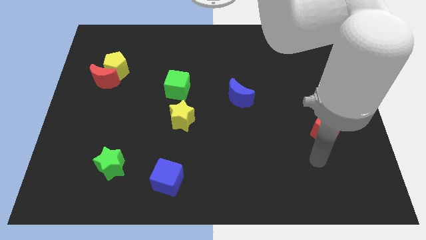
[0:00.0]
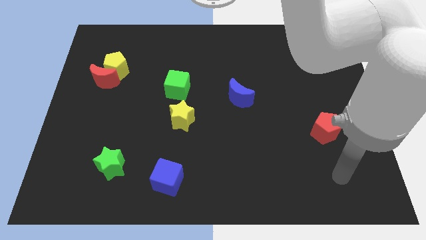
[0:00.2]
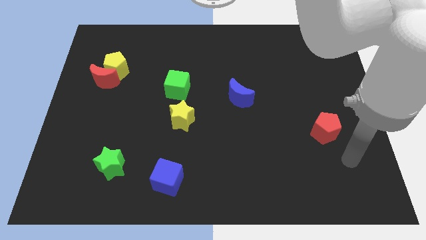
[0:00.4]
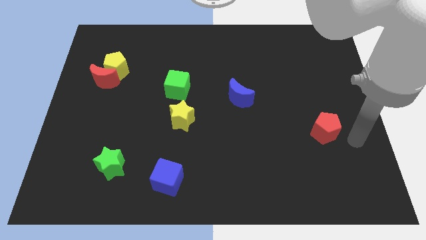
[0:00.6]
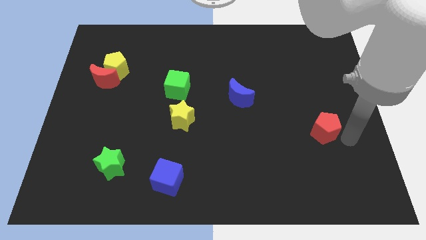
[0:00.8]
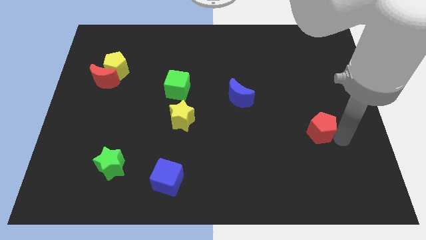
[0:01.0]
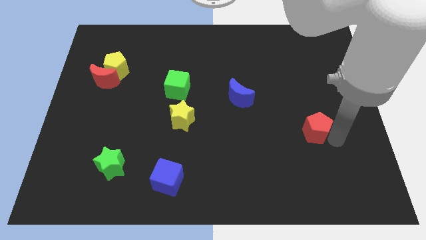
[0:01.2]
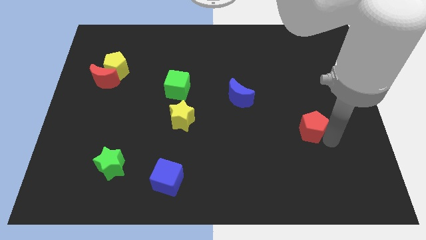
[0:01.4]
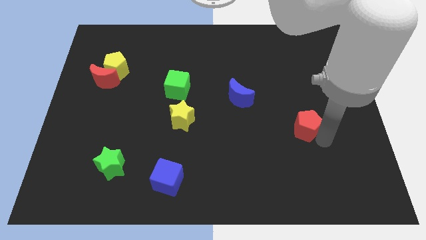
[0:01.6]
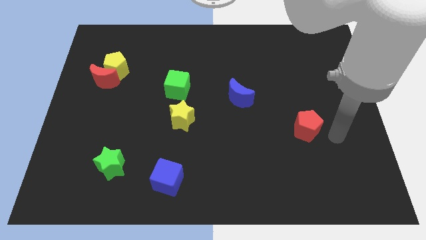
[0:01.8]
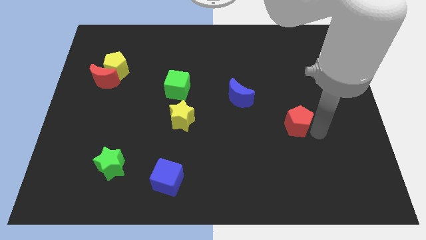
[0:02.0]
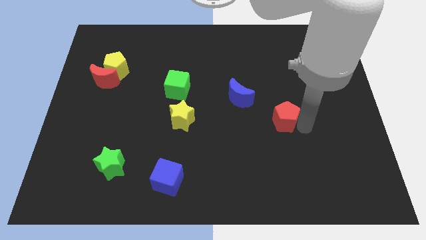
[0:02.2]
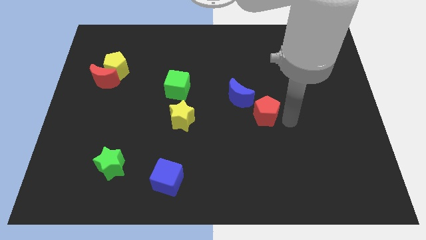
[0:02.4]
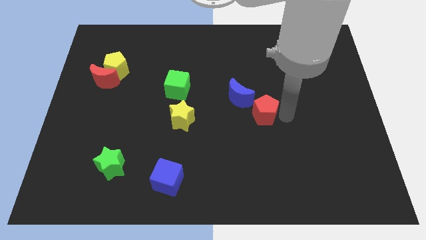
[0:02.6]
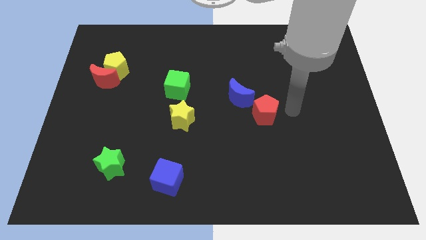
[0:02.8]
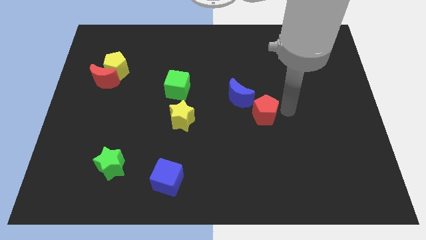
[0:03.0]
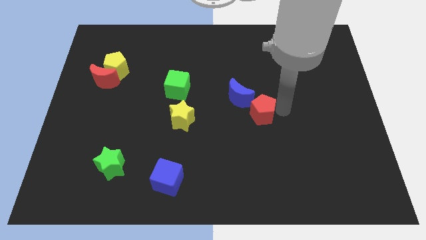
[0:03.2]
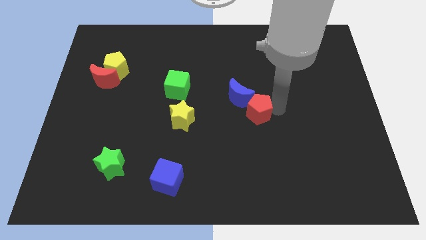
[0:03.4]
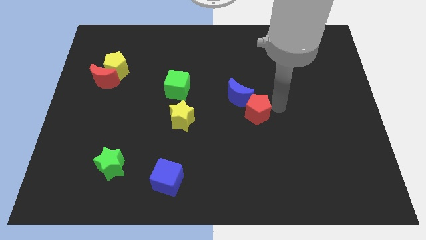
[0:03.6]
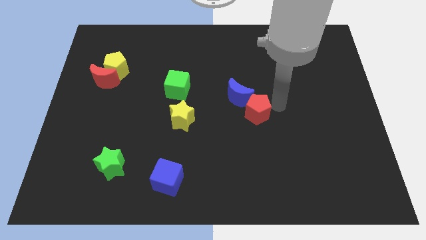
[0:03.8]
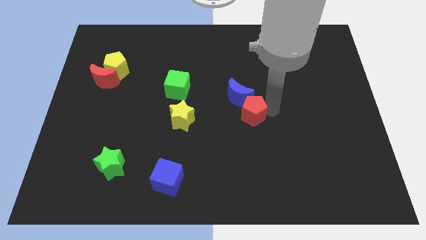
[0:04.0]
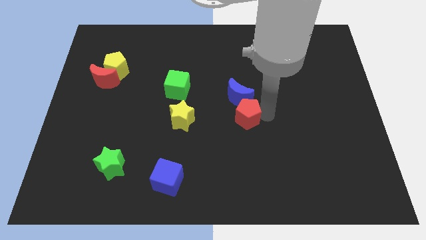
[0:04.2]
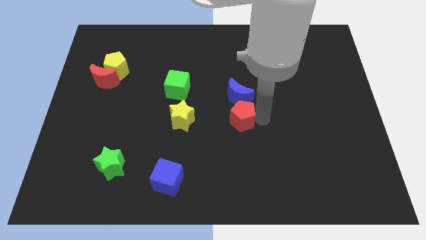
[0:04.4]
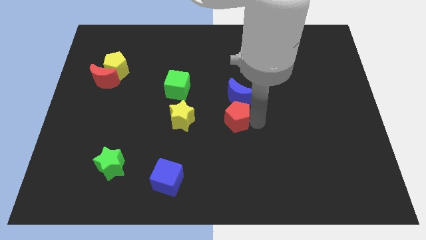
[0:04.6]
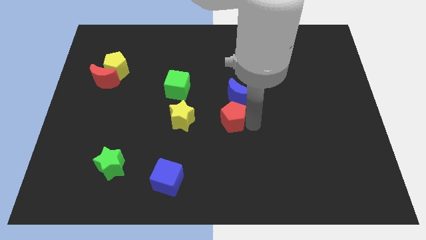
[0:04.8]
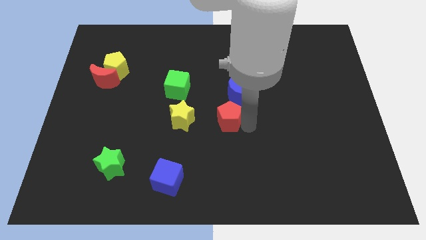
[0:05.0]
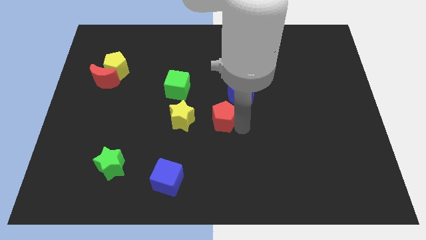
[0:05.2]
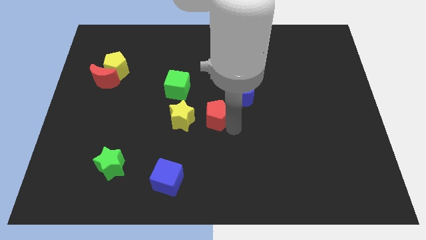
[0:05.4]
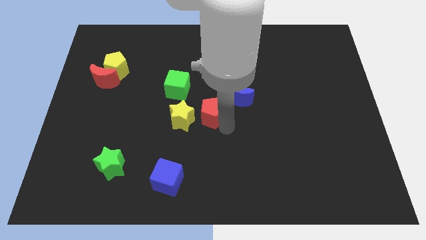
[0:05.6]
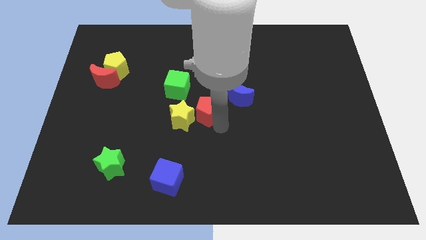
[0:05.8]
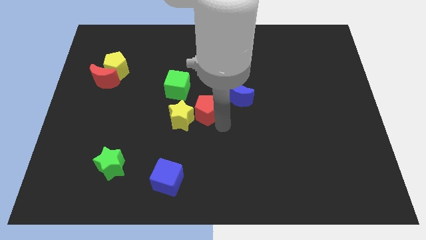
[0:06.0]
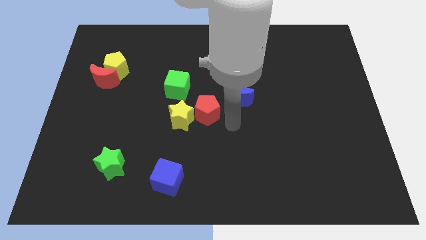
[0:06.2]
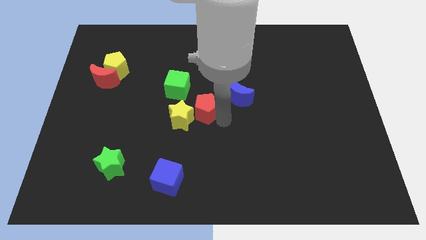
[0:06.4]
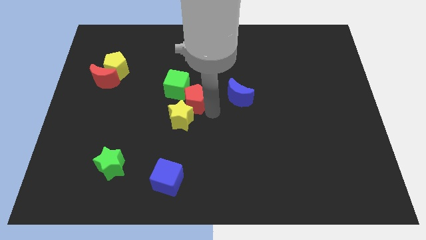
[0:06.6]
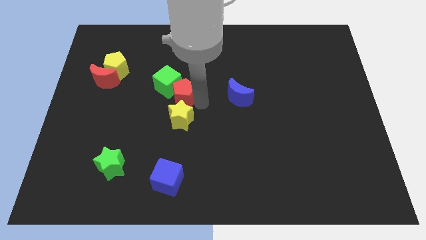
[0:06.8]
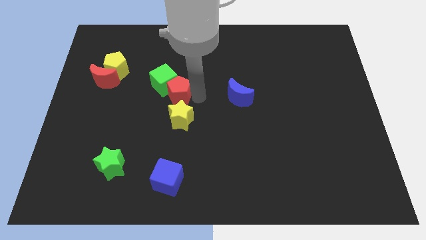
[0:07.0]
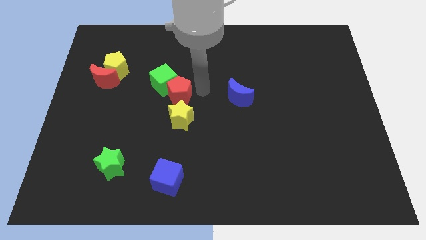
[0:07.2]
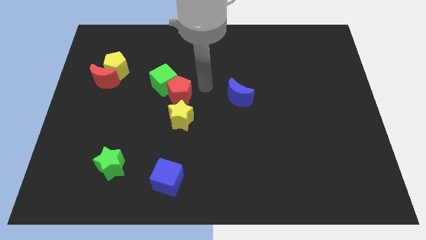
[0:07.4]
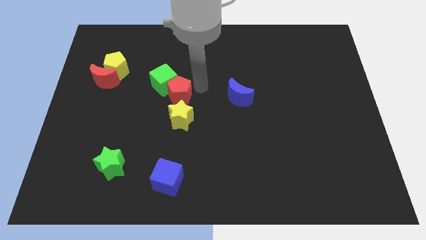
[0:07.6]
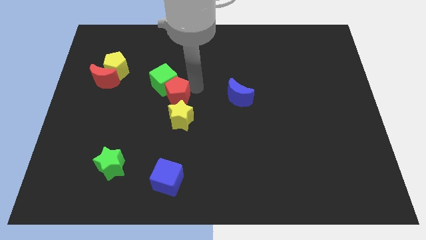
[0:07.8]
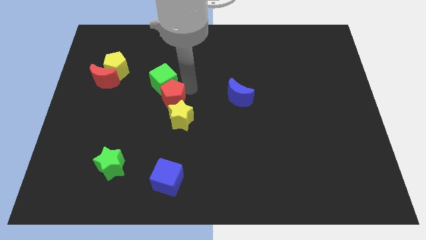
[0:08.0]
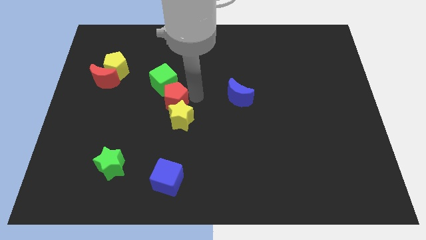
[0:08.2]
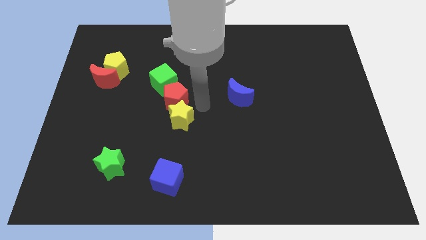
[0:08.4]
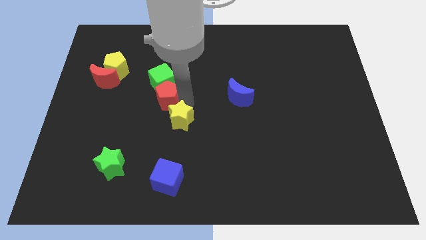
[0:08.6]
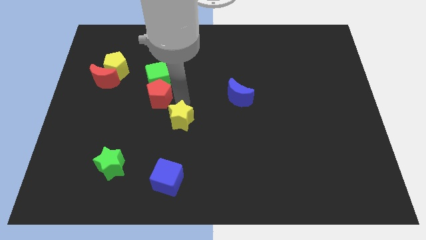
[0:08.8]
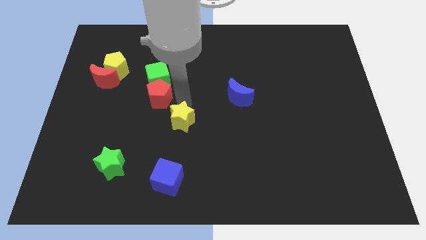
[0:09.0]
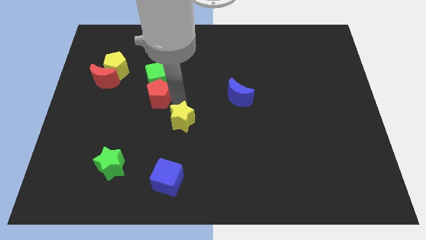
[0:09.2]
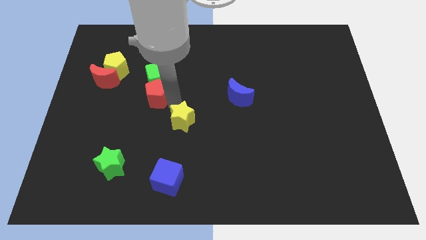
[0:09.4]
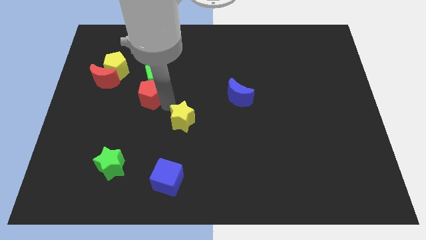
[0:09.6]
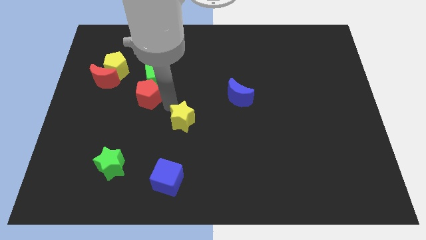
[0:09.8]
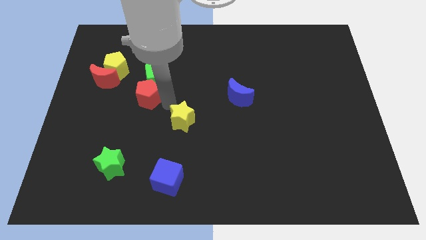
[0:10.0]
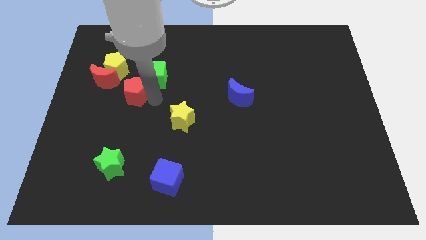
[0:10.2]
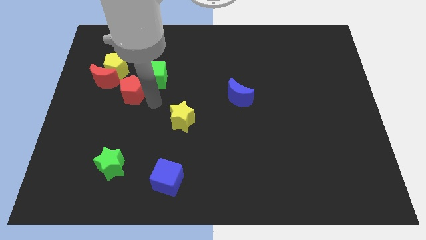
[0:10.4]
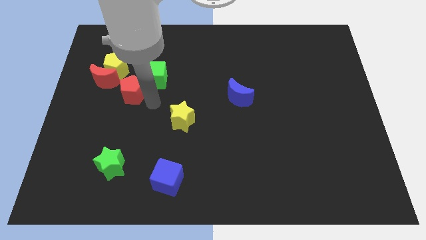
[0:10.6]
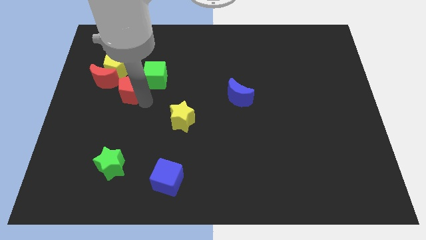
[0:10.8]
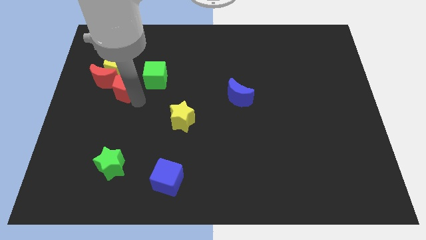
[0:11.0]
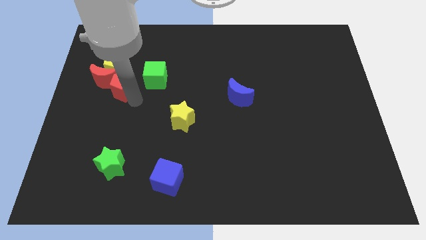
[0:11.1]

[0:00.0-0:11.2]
slide the red pentagon next to the red moon

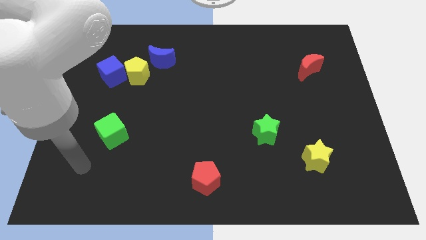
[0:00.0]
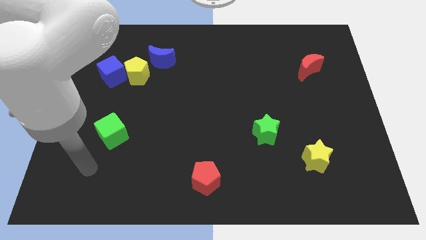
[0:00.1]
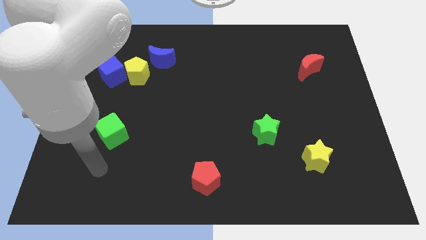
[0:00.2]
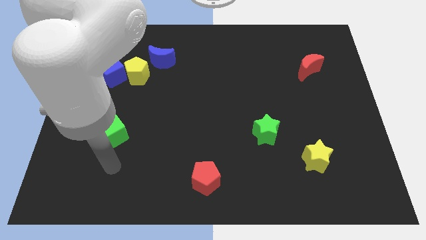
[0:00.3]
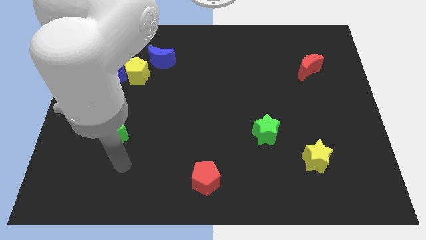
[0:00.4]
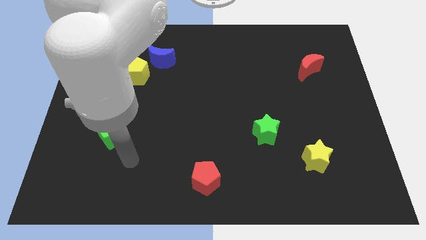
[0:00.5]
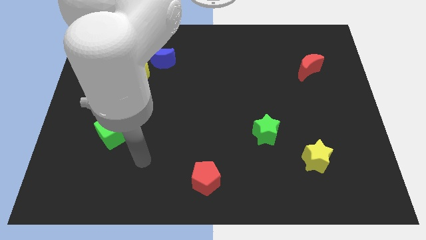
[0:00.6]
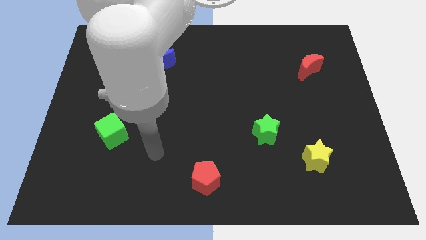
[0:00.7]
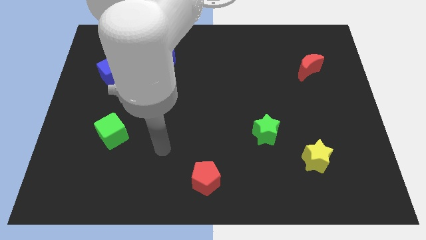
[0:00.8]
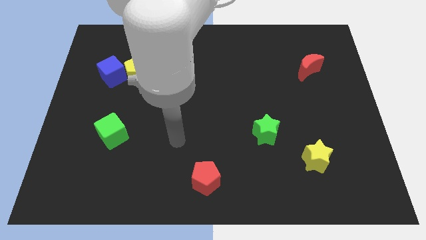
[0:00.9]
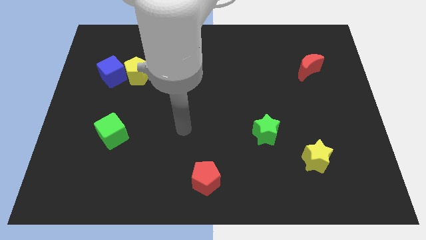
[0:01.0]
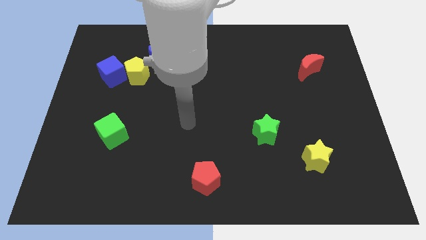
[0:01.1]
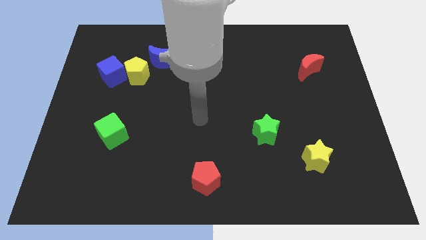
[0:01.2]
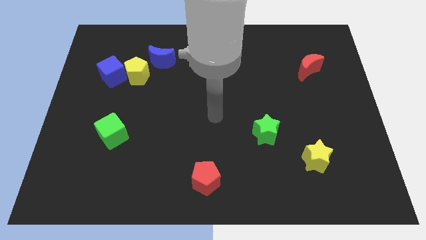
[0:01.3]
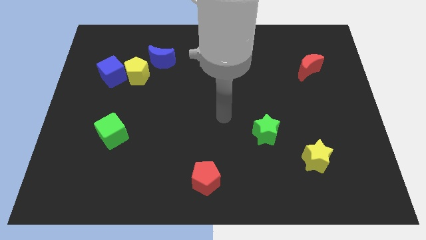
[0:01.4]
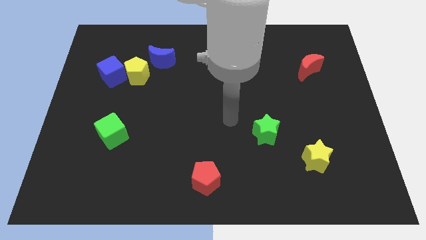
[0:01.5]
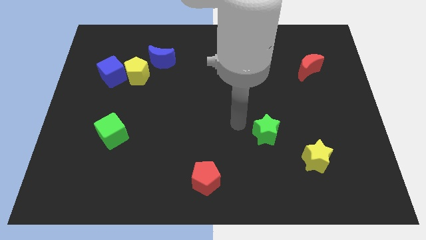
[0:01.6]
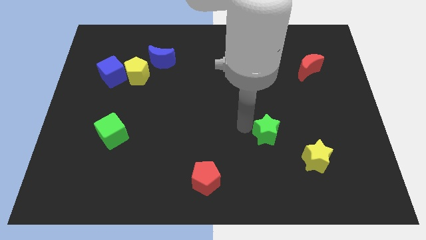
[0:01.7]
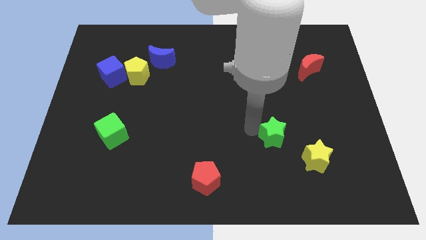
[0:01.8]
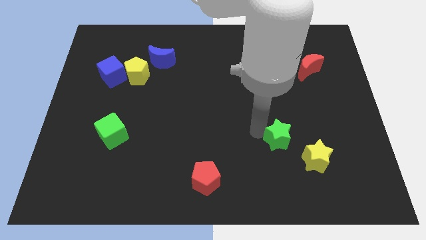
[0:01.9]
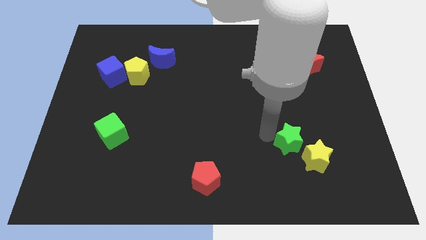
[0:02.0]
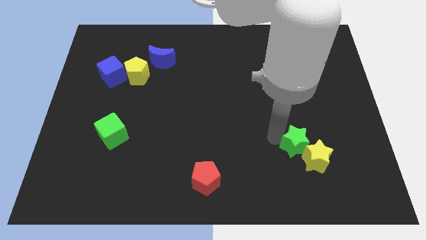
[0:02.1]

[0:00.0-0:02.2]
push the green star next to the yellow star

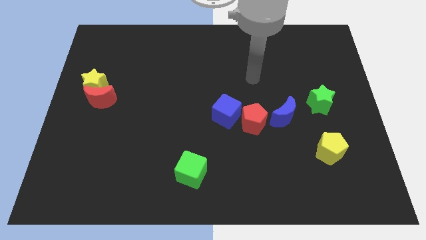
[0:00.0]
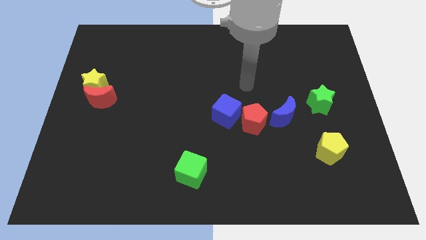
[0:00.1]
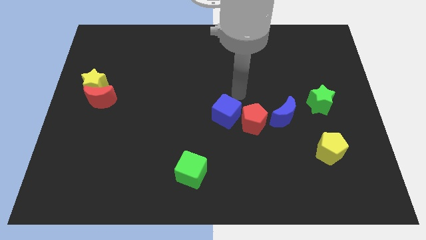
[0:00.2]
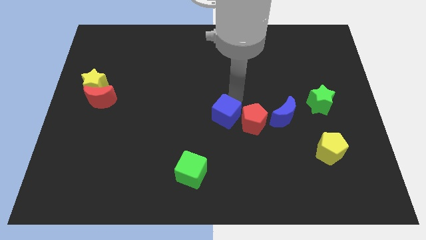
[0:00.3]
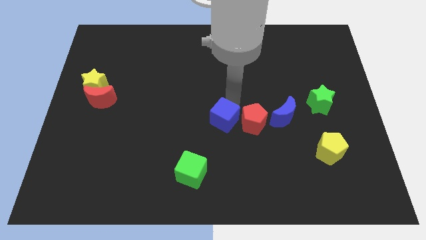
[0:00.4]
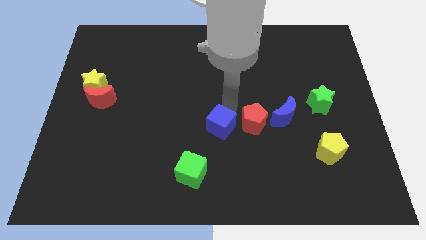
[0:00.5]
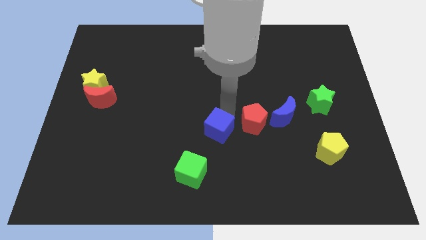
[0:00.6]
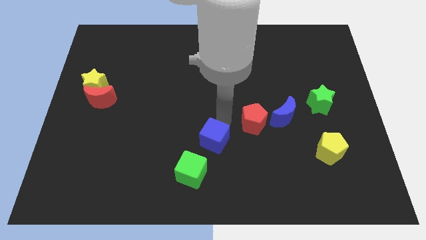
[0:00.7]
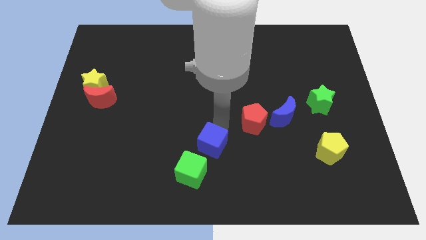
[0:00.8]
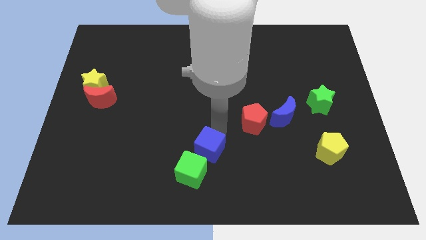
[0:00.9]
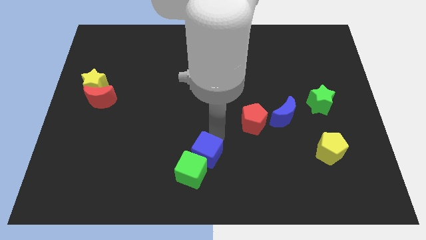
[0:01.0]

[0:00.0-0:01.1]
put the blue cube next to the green cube
